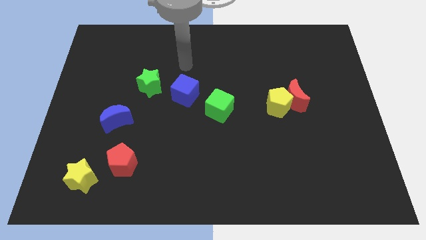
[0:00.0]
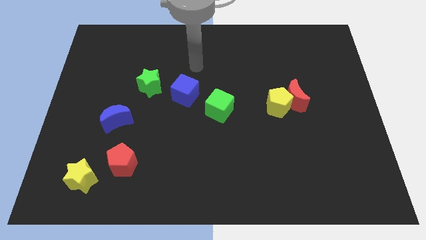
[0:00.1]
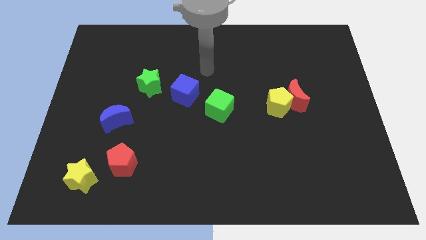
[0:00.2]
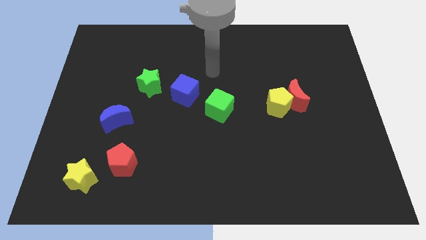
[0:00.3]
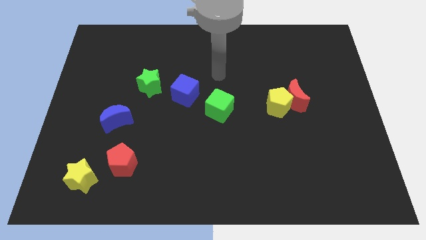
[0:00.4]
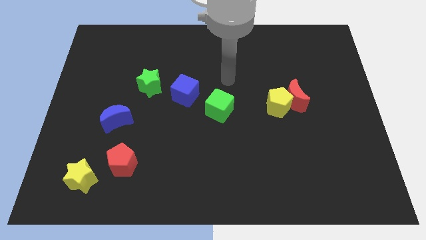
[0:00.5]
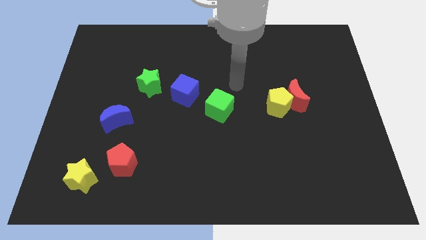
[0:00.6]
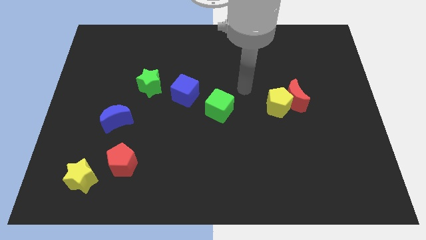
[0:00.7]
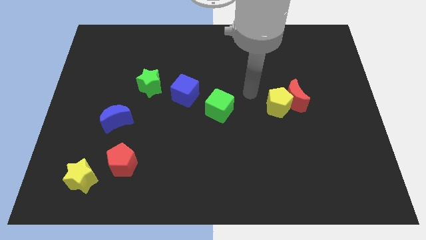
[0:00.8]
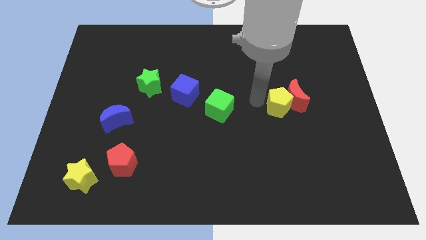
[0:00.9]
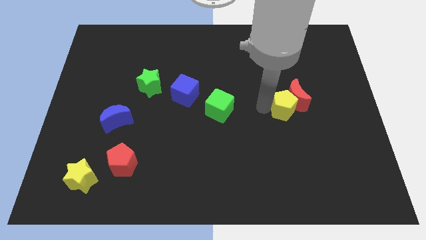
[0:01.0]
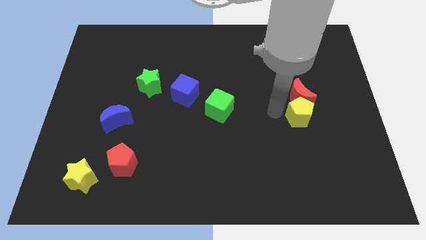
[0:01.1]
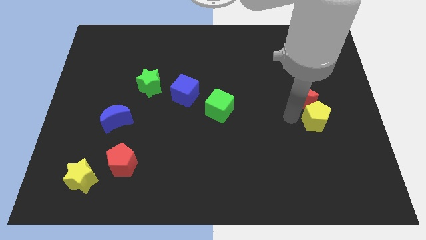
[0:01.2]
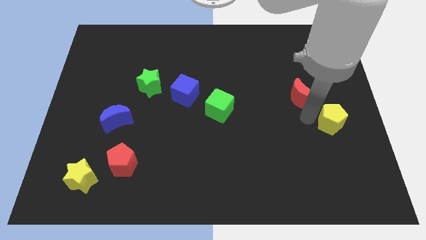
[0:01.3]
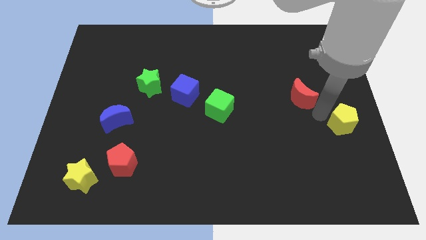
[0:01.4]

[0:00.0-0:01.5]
pull the red moon apart from the yellow pentagon

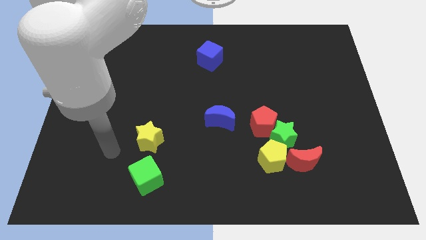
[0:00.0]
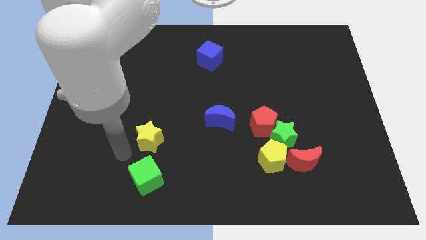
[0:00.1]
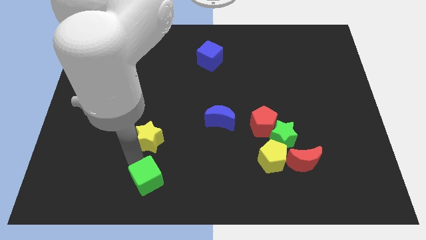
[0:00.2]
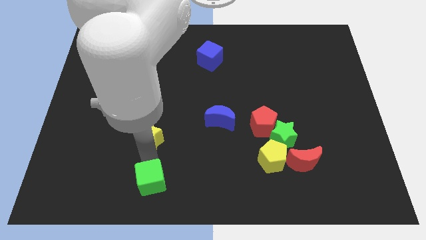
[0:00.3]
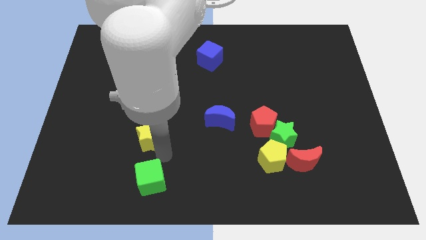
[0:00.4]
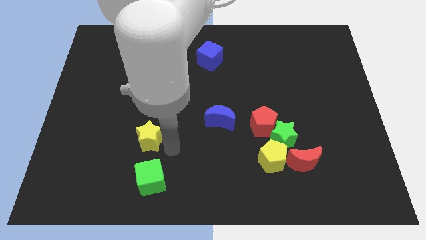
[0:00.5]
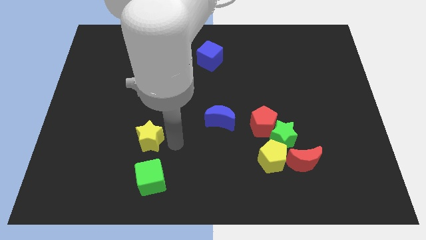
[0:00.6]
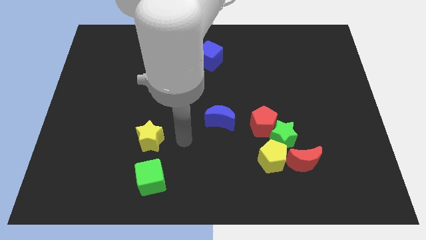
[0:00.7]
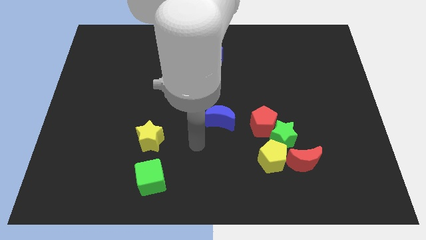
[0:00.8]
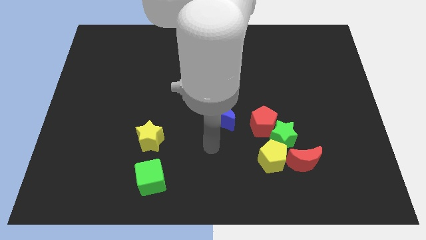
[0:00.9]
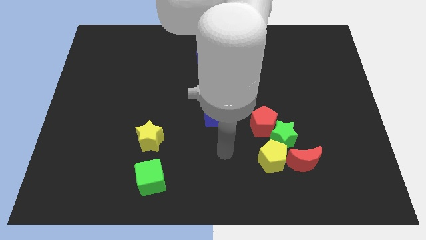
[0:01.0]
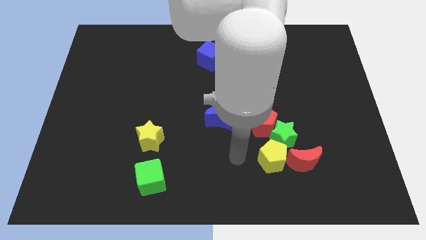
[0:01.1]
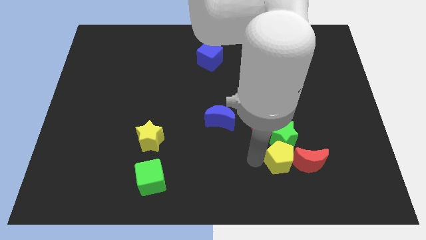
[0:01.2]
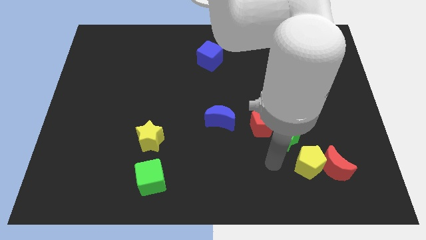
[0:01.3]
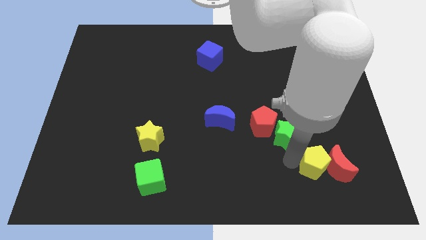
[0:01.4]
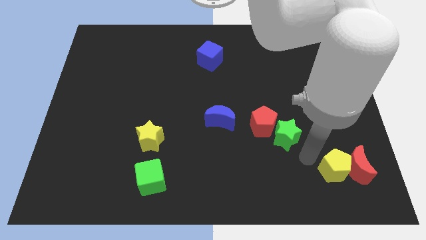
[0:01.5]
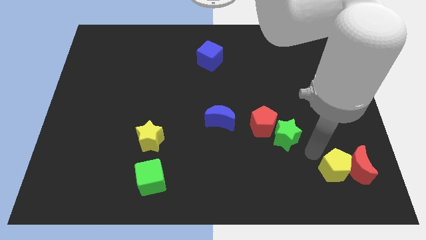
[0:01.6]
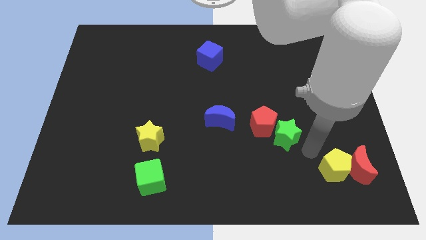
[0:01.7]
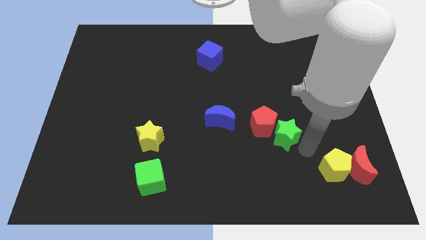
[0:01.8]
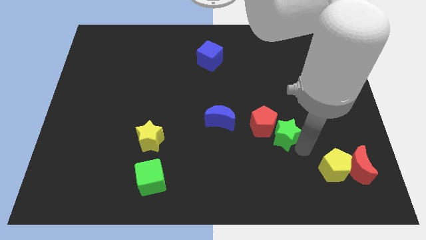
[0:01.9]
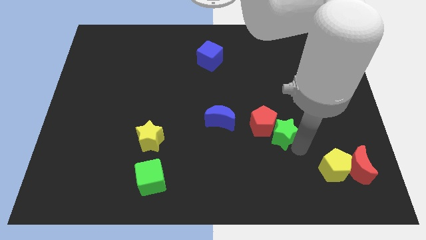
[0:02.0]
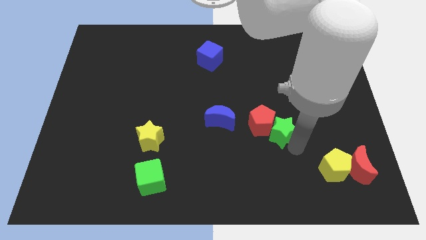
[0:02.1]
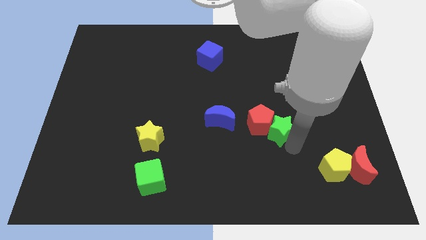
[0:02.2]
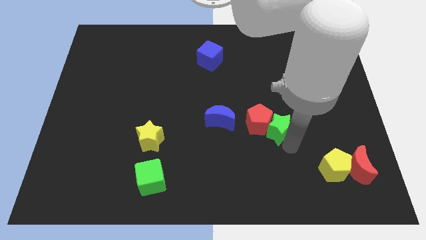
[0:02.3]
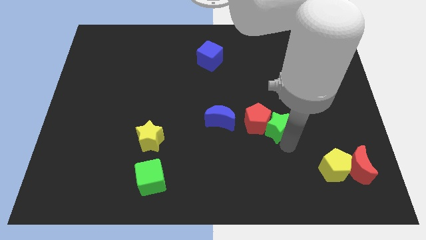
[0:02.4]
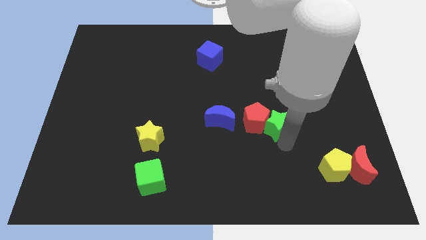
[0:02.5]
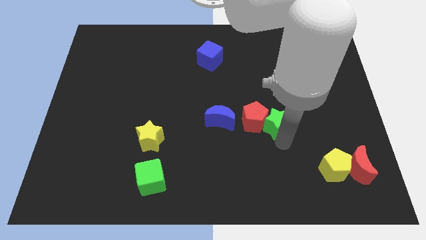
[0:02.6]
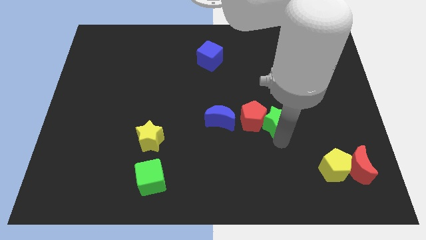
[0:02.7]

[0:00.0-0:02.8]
separate the green star from the red pentagon, yellow pentagon, and red moon

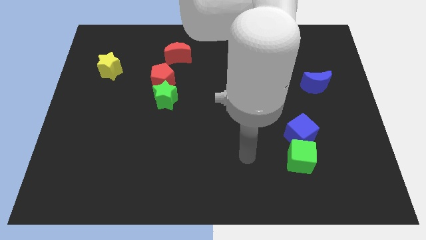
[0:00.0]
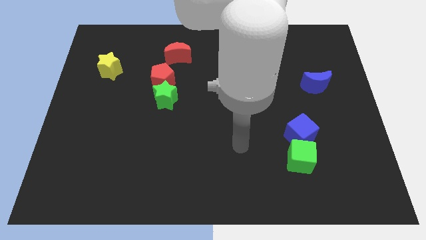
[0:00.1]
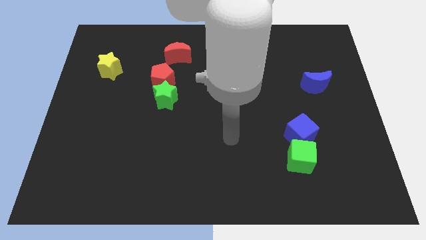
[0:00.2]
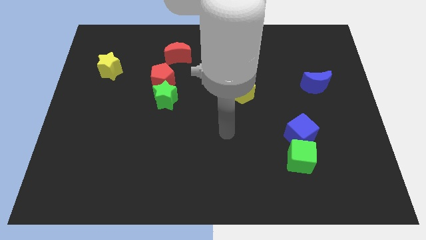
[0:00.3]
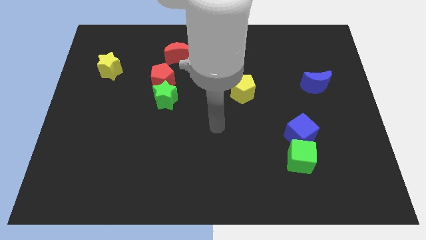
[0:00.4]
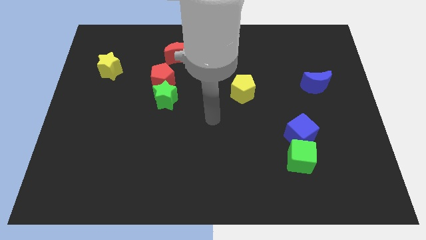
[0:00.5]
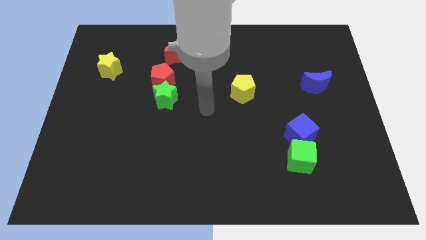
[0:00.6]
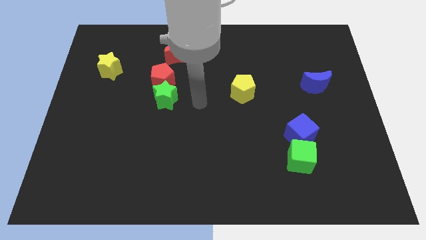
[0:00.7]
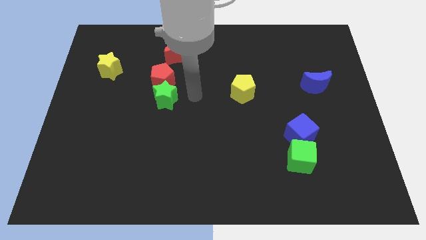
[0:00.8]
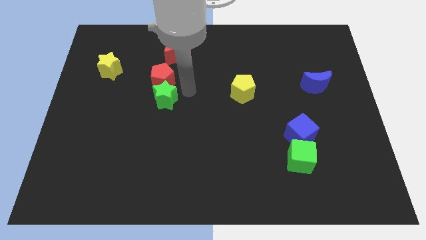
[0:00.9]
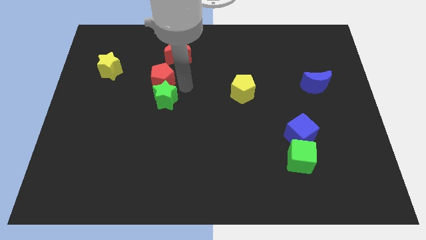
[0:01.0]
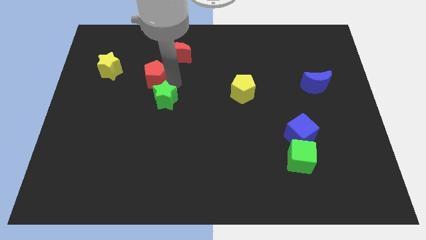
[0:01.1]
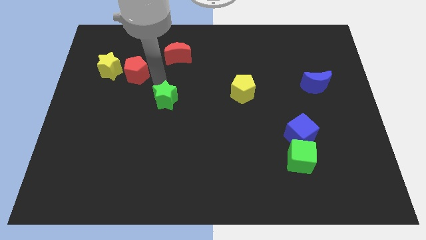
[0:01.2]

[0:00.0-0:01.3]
separate the green star from the red pentagon

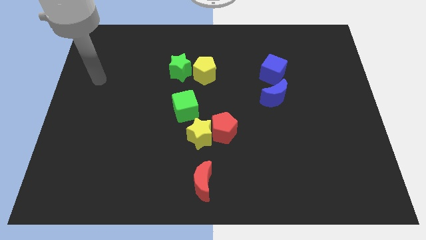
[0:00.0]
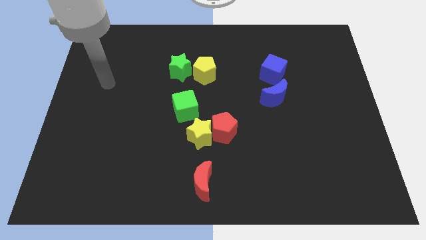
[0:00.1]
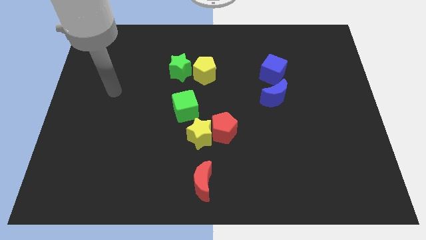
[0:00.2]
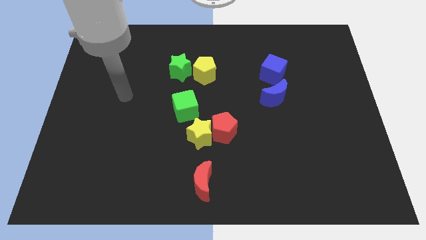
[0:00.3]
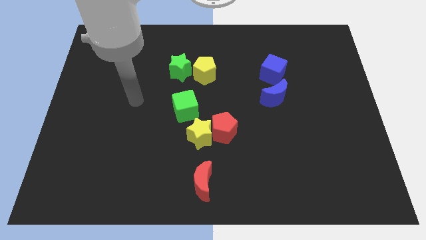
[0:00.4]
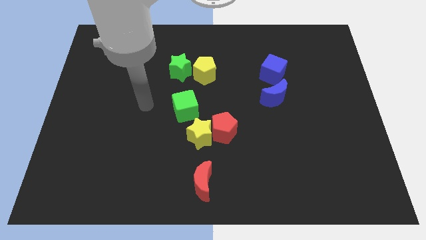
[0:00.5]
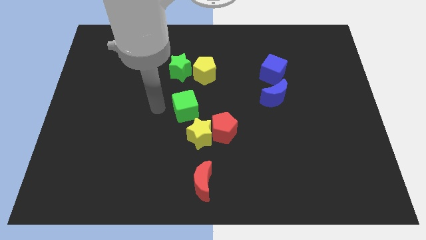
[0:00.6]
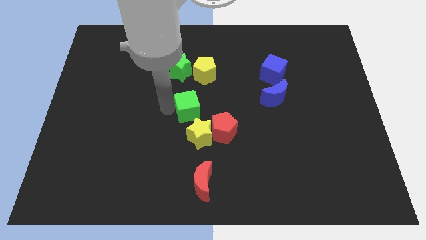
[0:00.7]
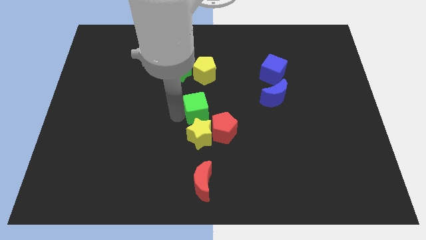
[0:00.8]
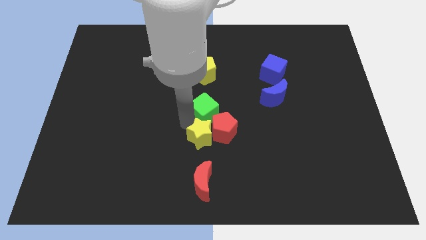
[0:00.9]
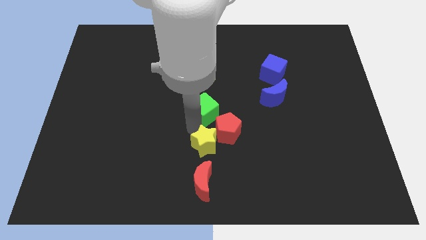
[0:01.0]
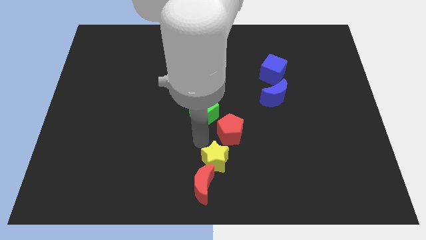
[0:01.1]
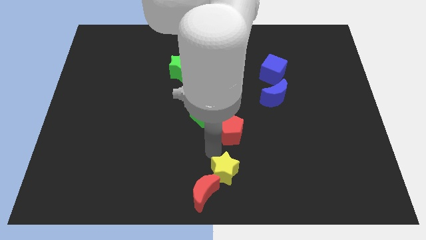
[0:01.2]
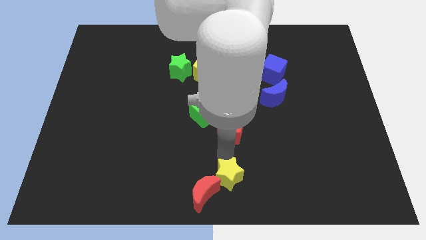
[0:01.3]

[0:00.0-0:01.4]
separate the red pentagon from the yellow star

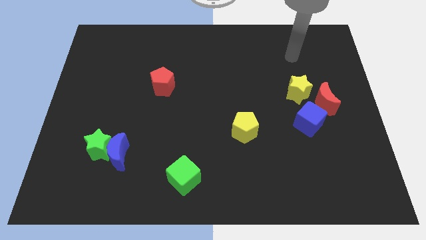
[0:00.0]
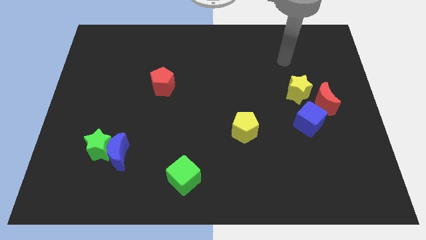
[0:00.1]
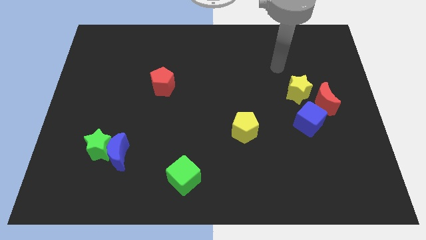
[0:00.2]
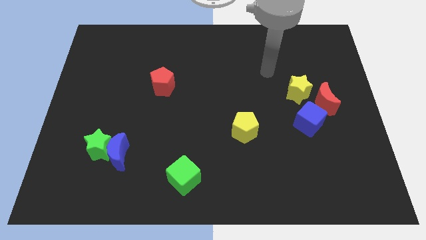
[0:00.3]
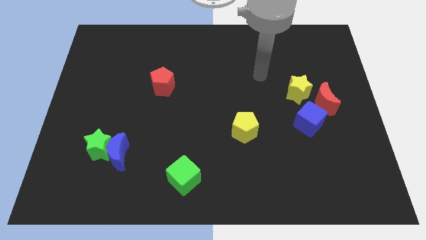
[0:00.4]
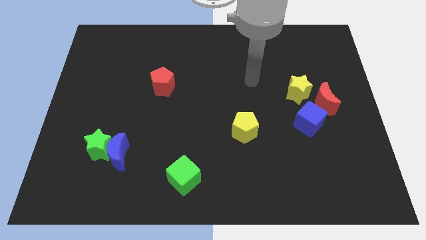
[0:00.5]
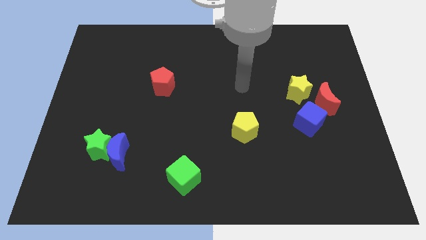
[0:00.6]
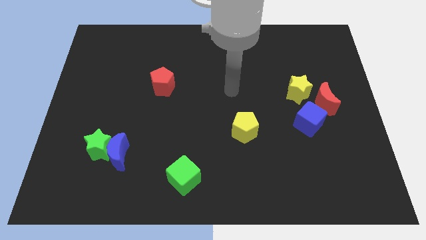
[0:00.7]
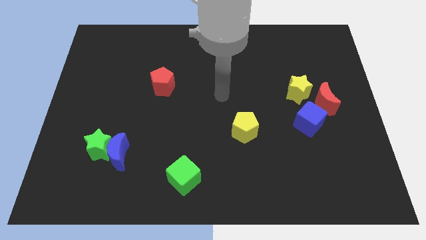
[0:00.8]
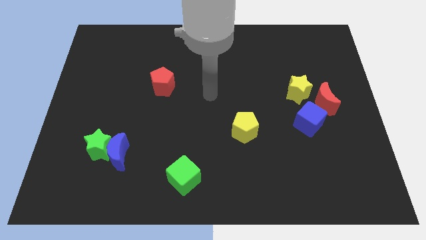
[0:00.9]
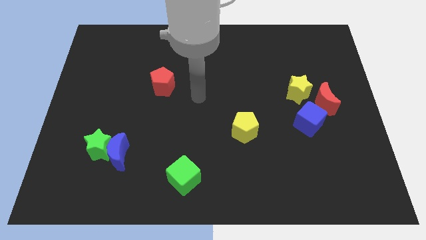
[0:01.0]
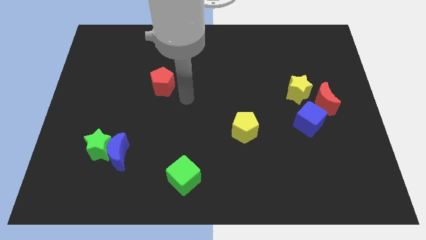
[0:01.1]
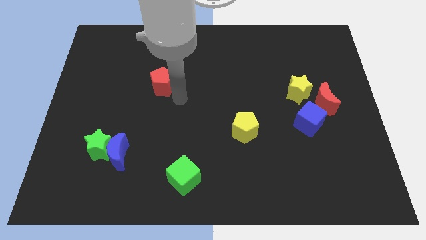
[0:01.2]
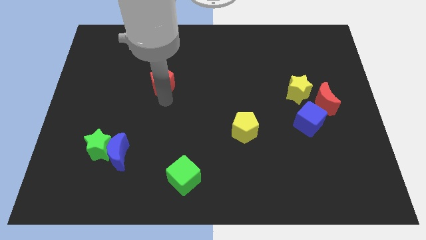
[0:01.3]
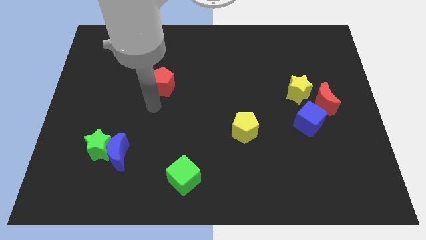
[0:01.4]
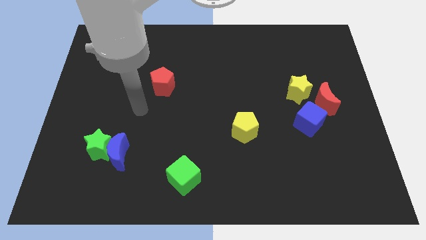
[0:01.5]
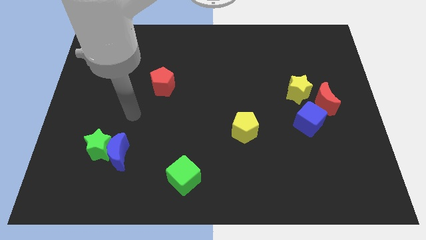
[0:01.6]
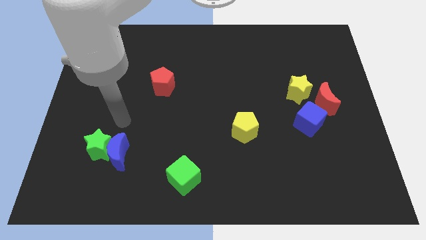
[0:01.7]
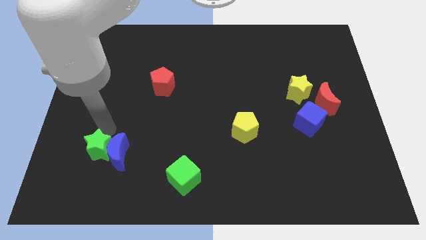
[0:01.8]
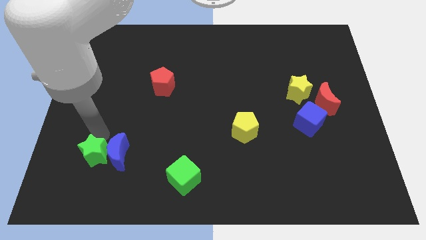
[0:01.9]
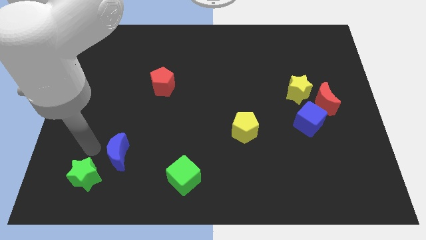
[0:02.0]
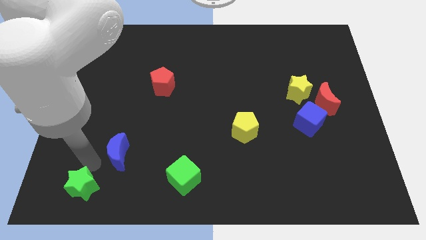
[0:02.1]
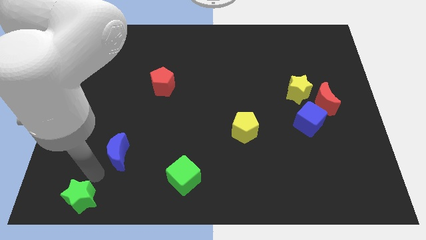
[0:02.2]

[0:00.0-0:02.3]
move the blue moon away from the green star
